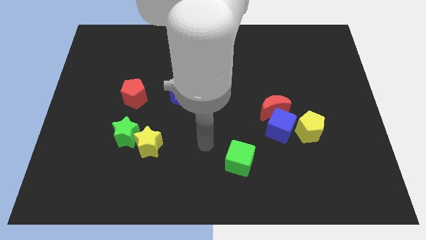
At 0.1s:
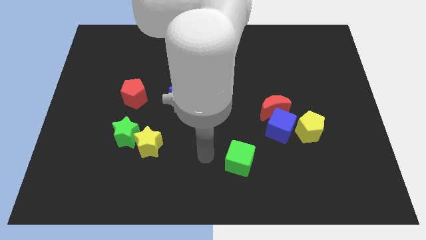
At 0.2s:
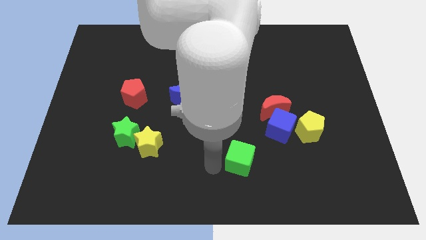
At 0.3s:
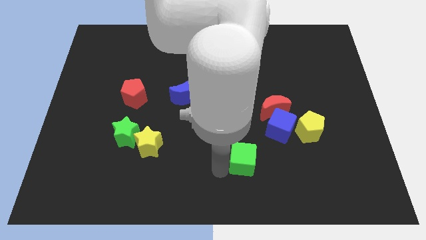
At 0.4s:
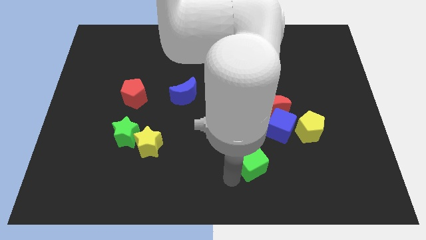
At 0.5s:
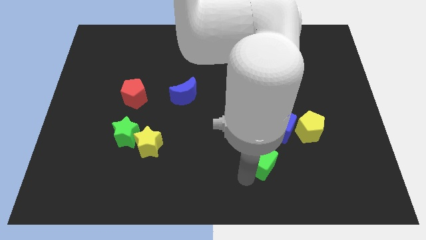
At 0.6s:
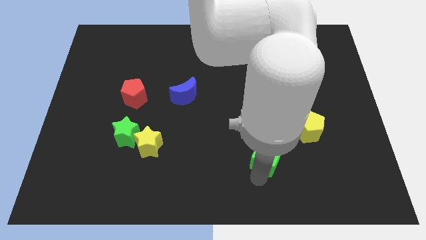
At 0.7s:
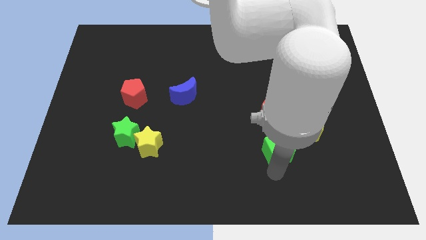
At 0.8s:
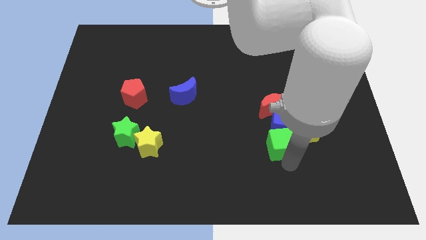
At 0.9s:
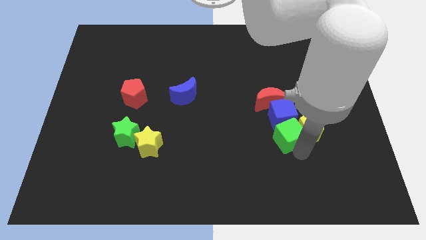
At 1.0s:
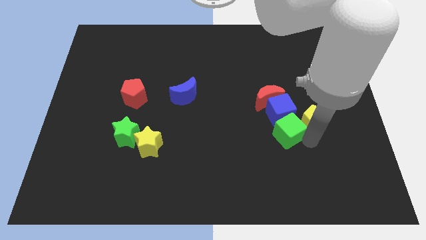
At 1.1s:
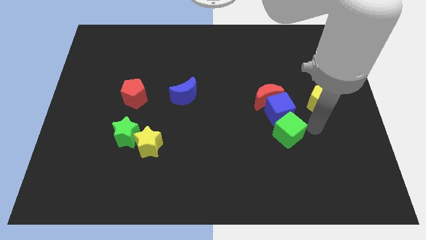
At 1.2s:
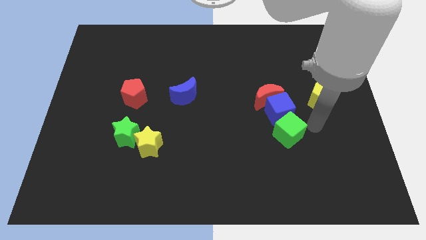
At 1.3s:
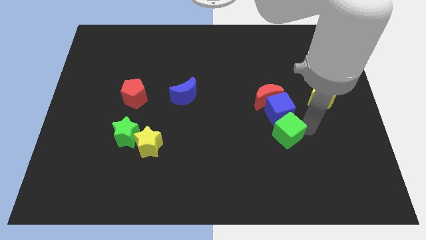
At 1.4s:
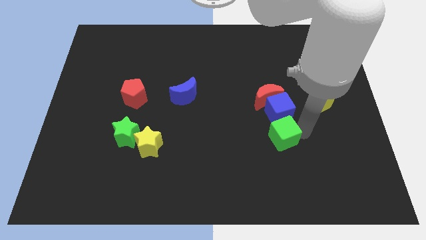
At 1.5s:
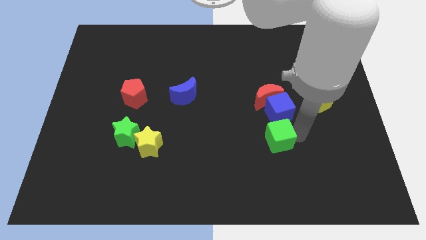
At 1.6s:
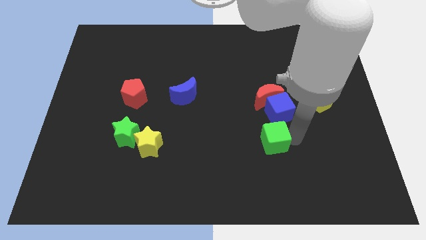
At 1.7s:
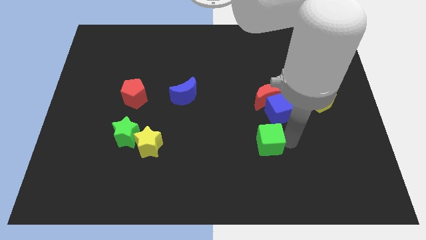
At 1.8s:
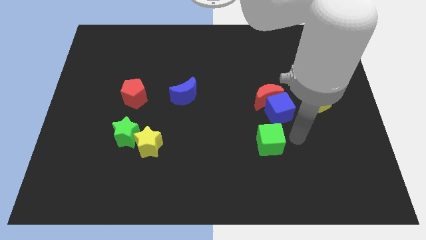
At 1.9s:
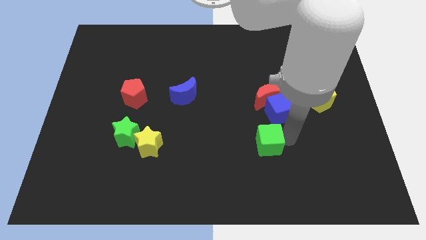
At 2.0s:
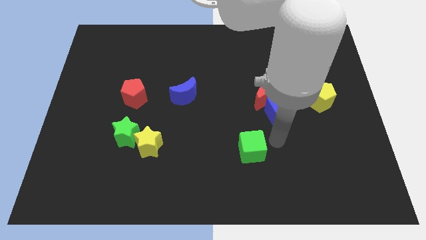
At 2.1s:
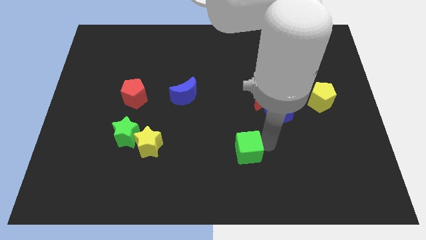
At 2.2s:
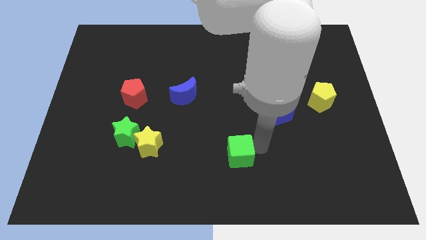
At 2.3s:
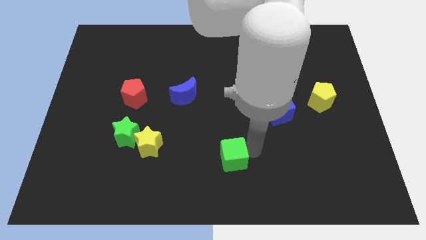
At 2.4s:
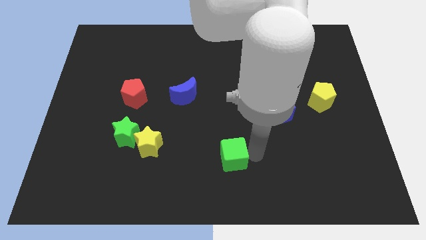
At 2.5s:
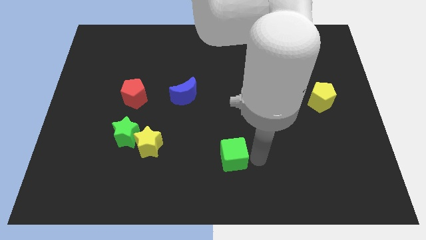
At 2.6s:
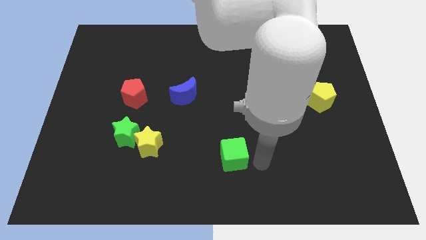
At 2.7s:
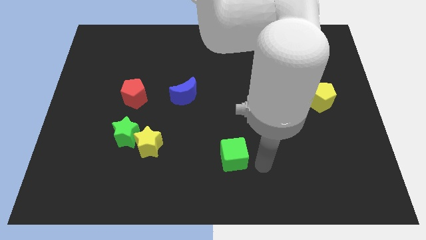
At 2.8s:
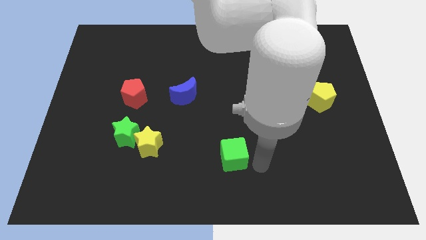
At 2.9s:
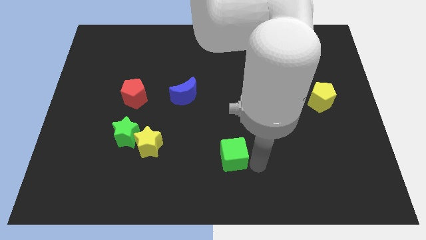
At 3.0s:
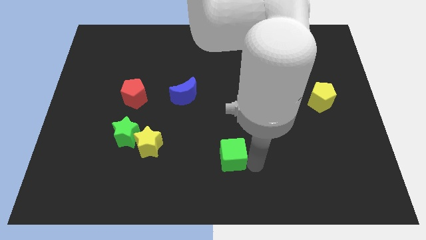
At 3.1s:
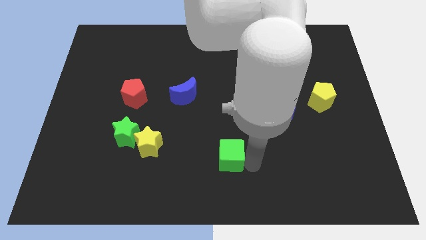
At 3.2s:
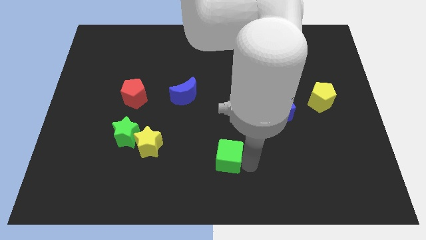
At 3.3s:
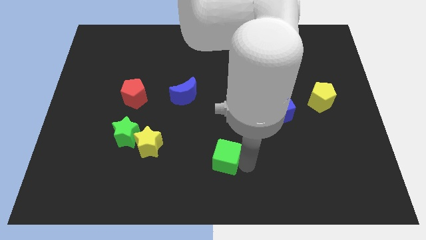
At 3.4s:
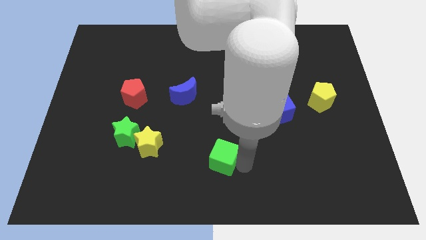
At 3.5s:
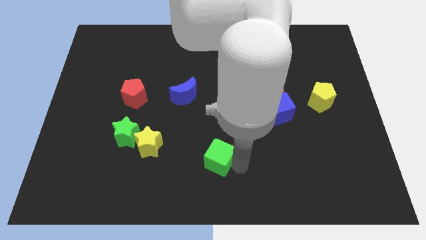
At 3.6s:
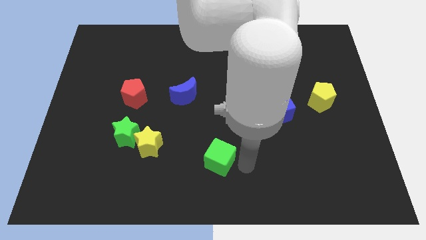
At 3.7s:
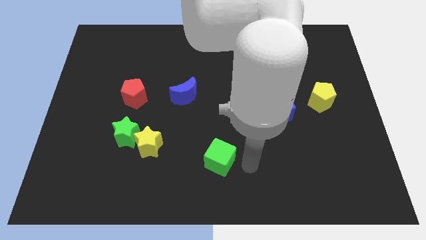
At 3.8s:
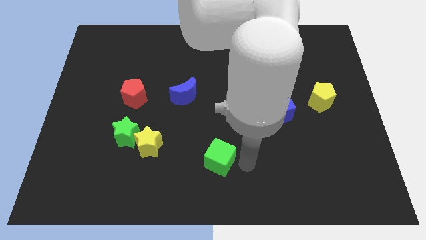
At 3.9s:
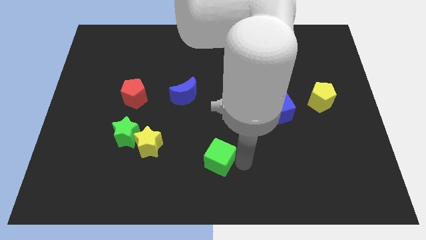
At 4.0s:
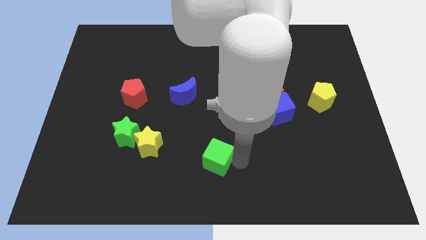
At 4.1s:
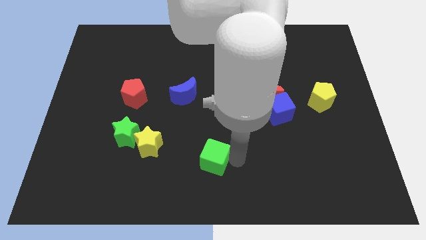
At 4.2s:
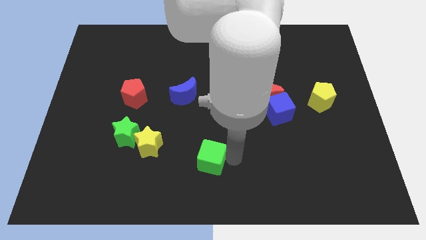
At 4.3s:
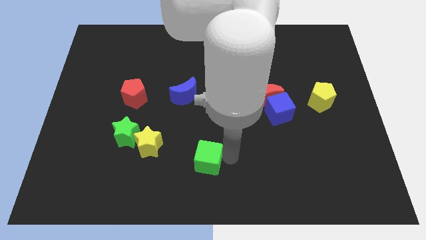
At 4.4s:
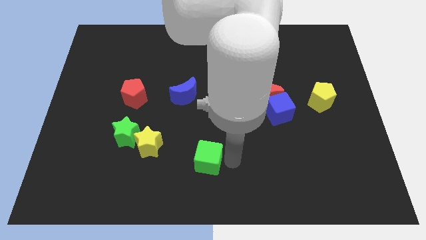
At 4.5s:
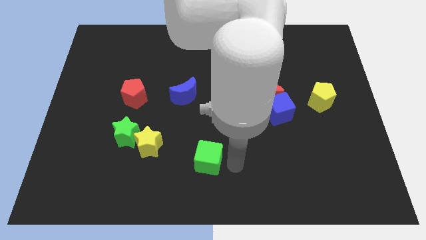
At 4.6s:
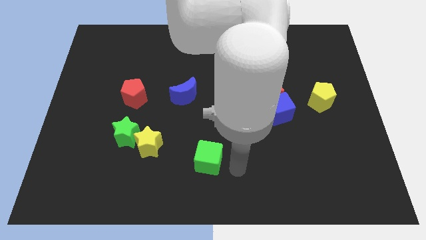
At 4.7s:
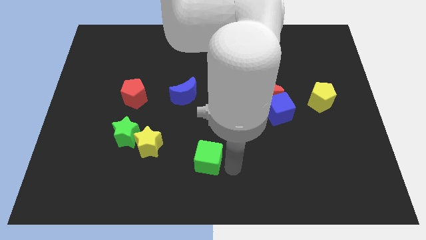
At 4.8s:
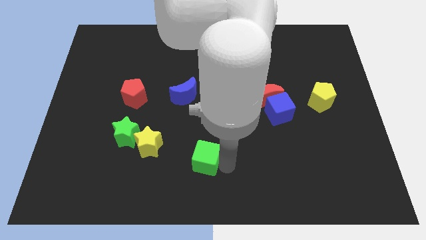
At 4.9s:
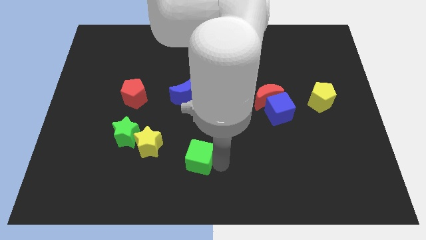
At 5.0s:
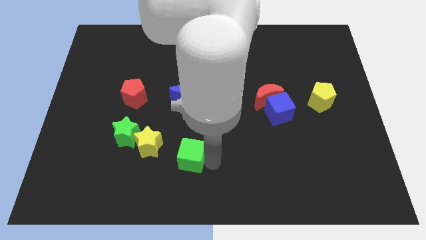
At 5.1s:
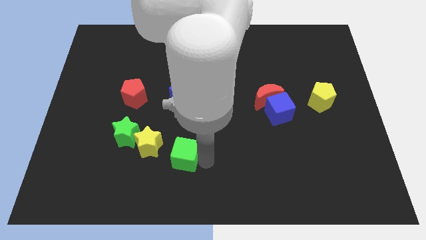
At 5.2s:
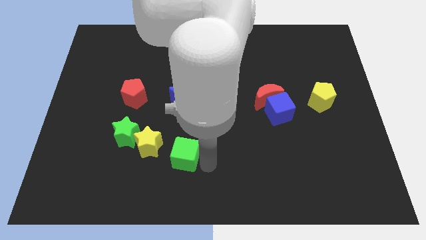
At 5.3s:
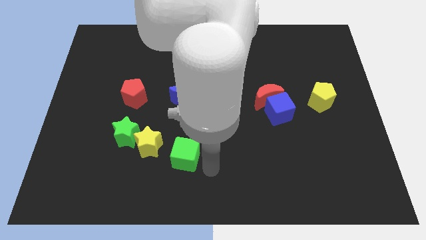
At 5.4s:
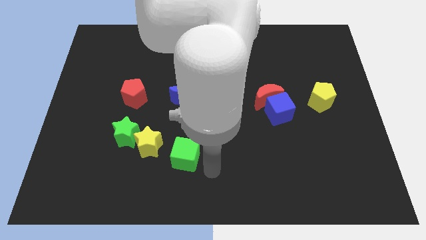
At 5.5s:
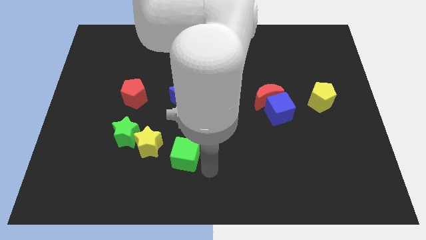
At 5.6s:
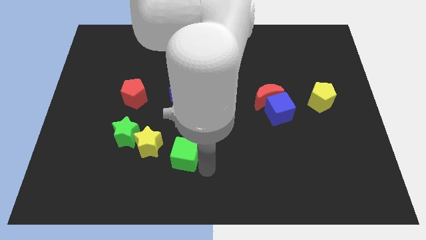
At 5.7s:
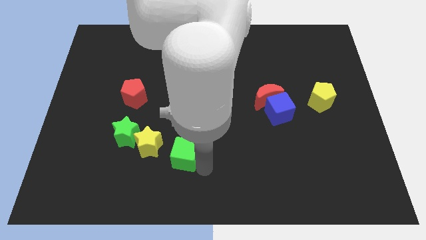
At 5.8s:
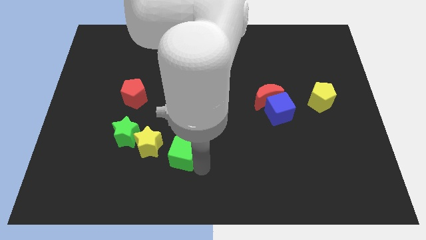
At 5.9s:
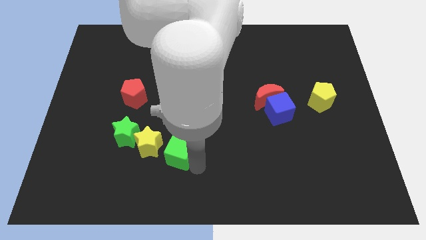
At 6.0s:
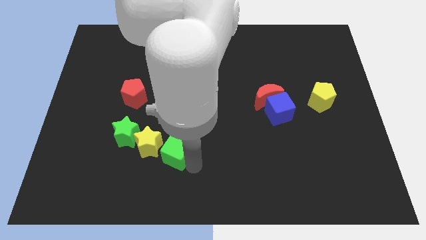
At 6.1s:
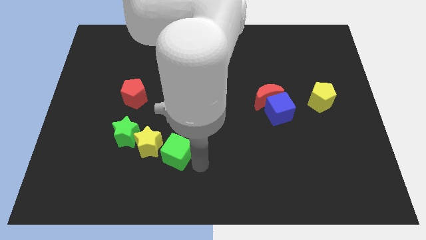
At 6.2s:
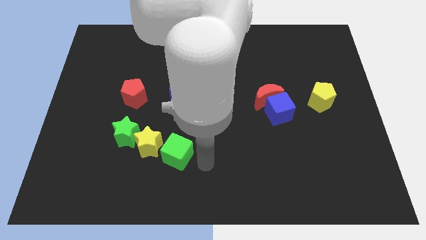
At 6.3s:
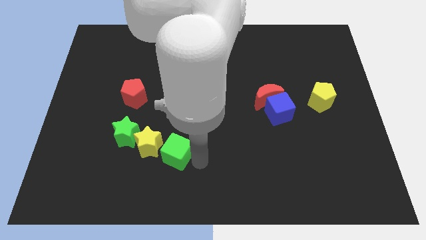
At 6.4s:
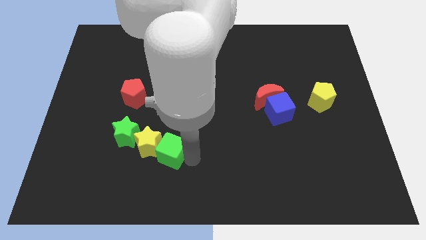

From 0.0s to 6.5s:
move the green cube to the yellow star

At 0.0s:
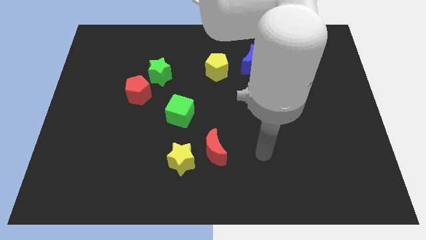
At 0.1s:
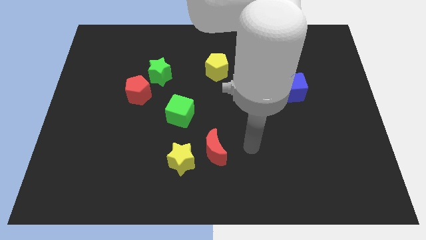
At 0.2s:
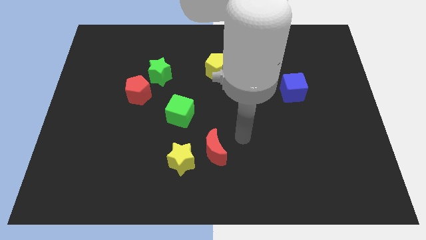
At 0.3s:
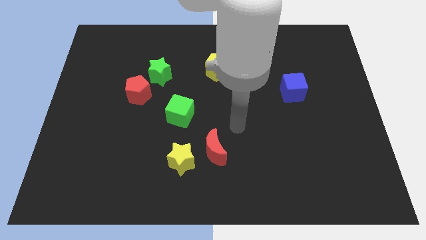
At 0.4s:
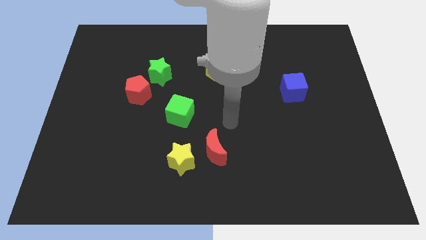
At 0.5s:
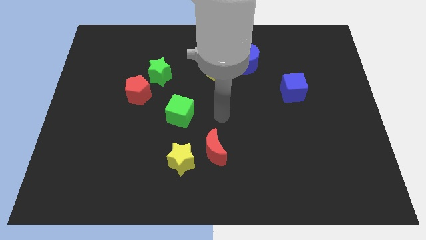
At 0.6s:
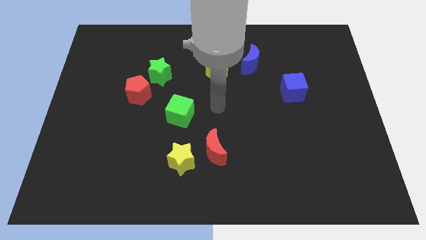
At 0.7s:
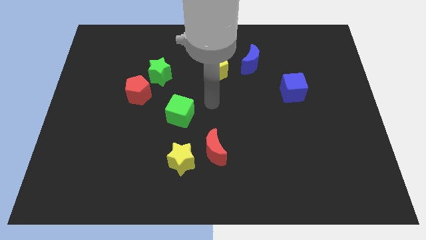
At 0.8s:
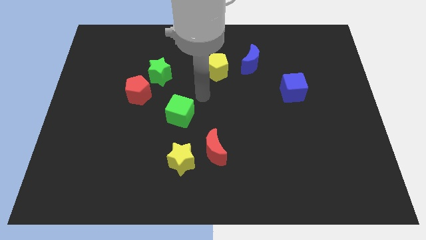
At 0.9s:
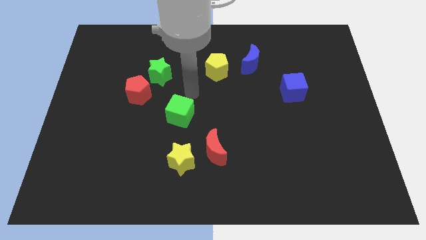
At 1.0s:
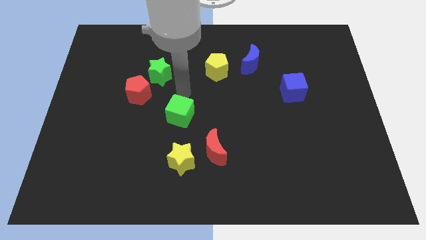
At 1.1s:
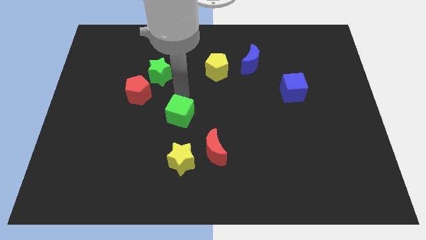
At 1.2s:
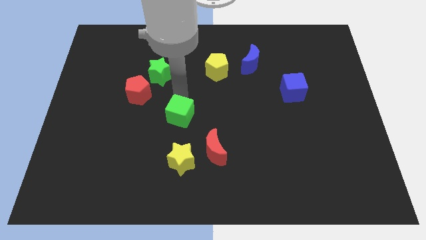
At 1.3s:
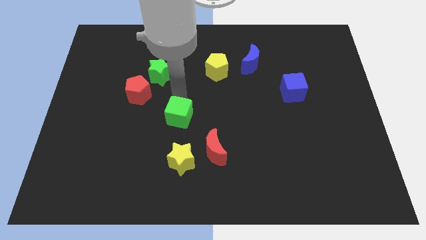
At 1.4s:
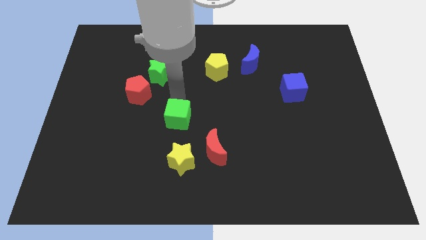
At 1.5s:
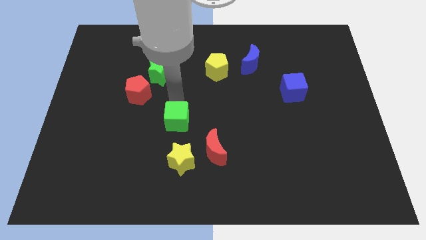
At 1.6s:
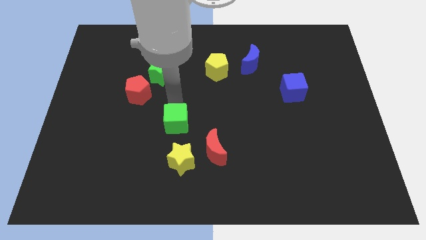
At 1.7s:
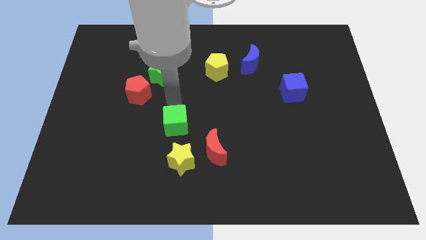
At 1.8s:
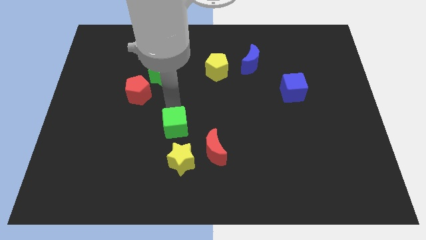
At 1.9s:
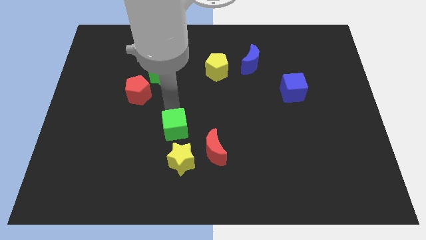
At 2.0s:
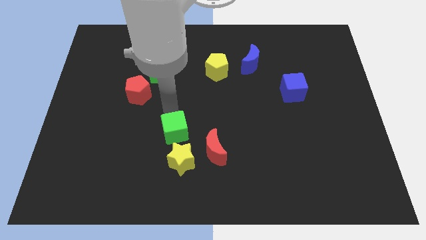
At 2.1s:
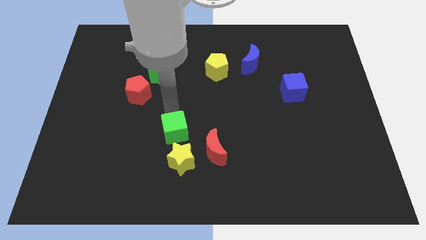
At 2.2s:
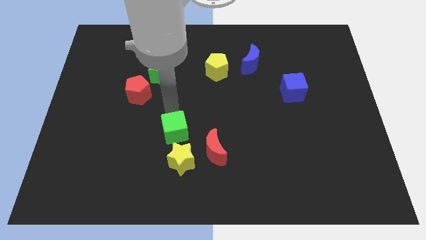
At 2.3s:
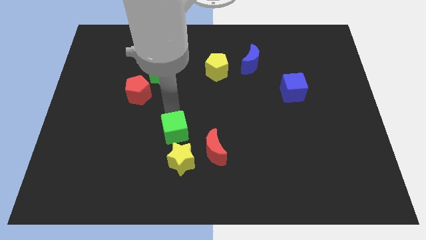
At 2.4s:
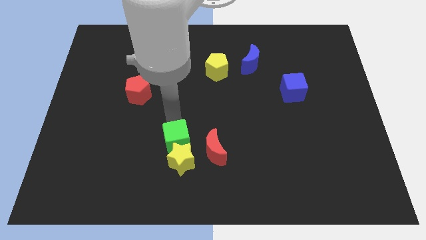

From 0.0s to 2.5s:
push the green cube close to the yellow star
